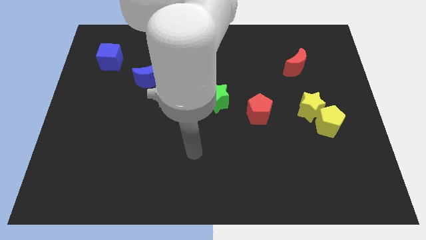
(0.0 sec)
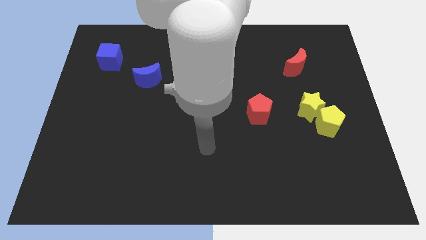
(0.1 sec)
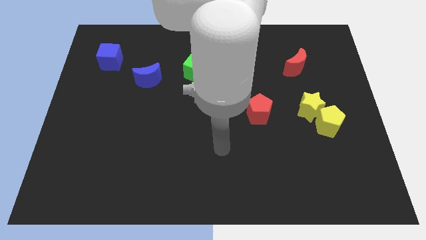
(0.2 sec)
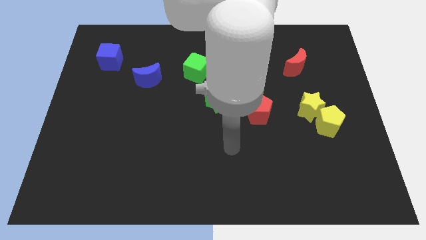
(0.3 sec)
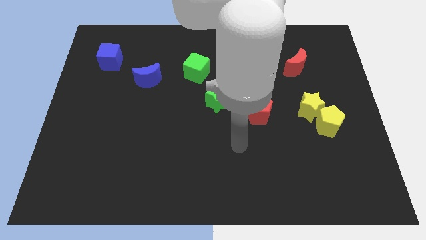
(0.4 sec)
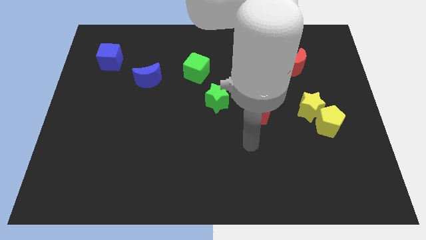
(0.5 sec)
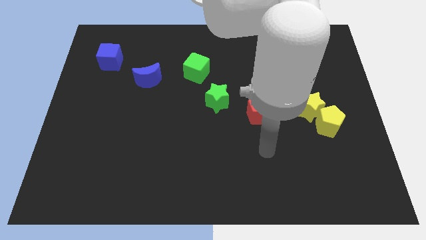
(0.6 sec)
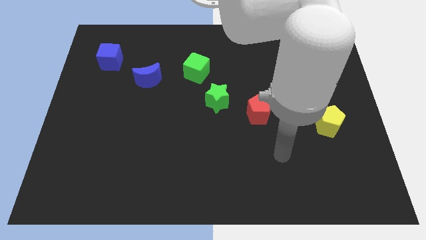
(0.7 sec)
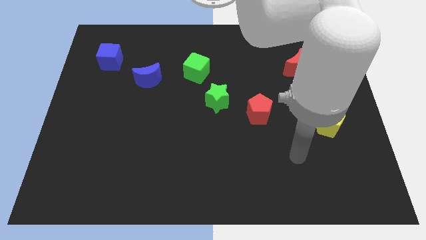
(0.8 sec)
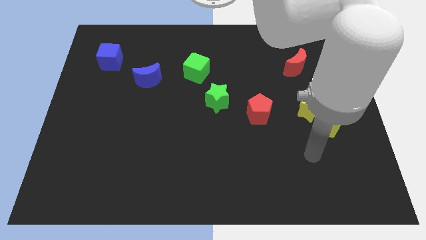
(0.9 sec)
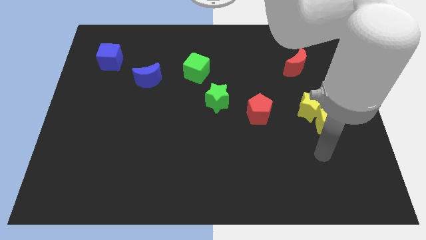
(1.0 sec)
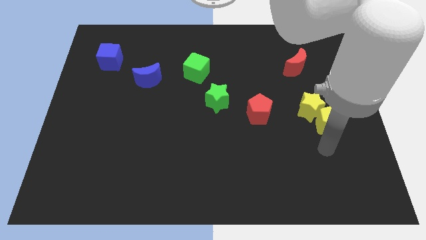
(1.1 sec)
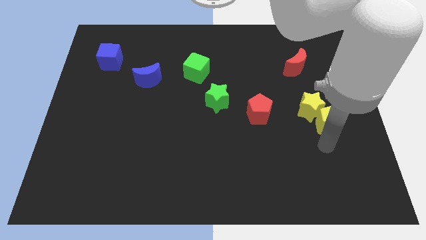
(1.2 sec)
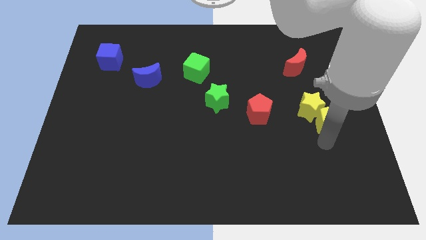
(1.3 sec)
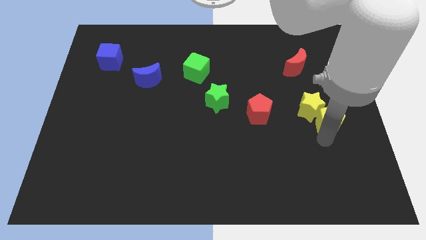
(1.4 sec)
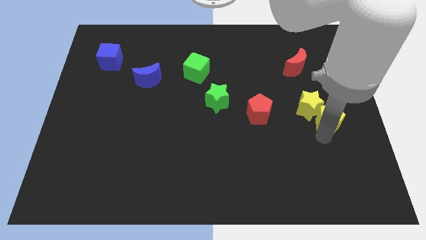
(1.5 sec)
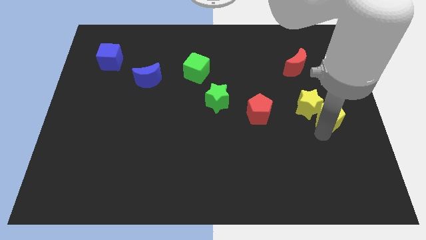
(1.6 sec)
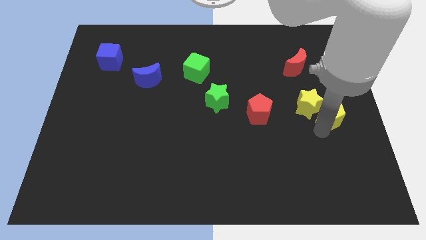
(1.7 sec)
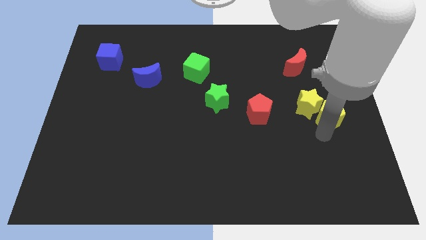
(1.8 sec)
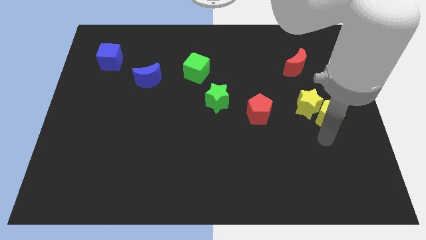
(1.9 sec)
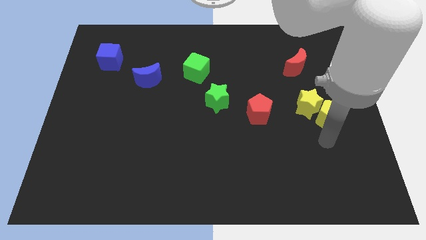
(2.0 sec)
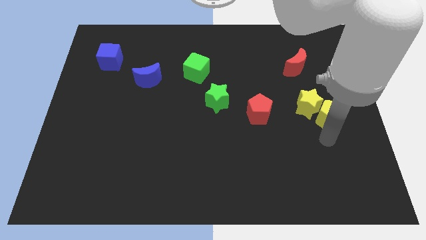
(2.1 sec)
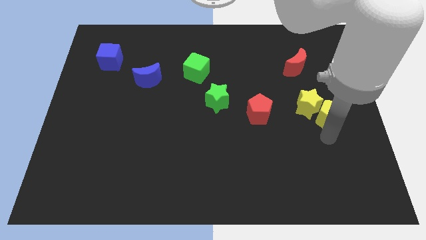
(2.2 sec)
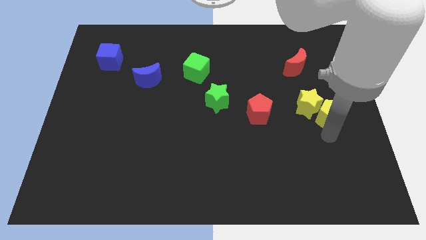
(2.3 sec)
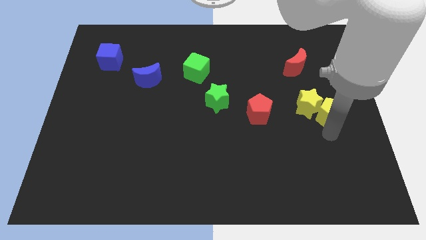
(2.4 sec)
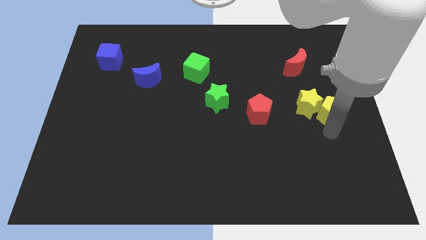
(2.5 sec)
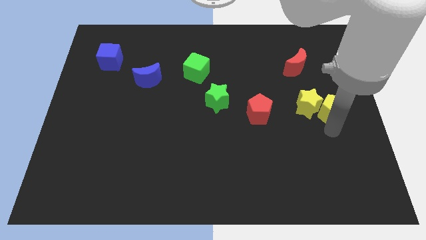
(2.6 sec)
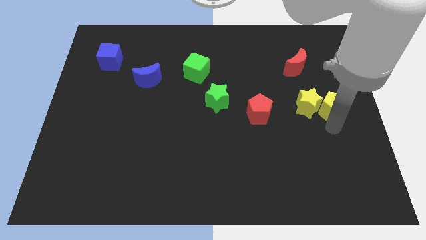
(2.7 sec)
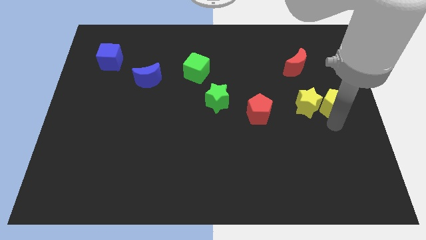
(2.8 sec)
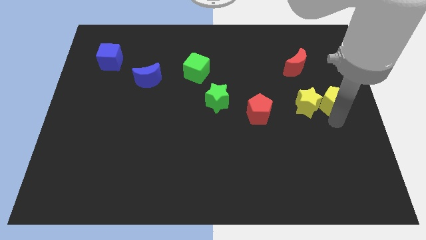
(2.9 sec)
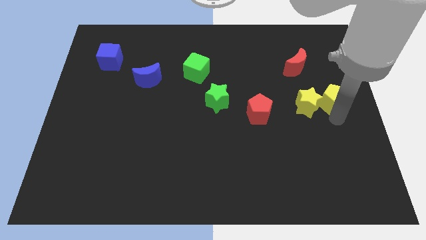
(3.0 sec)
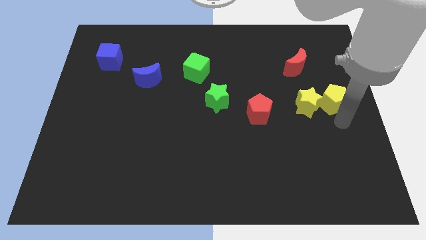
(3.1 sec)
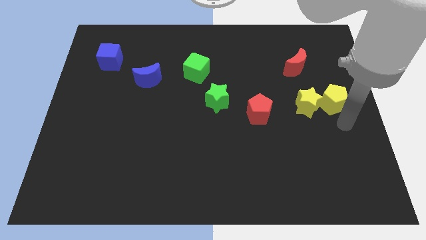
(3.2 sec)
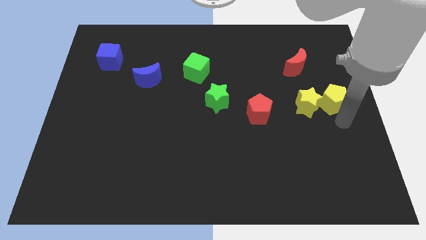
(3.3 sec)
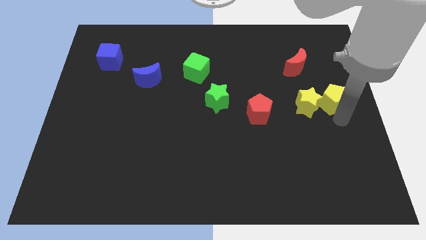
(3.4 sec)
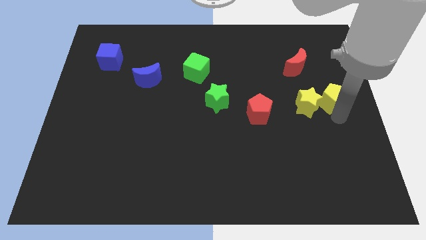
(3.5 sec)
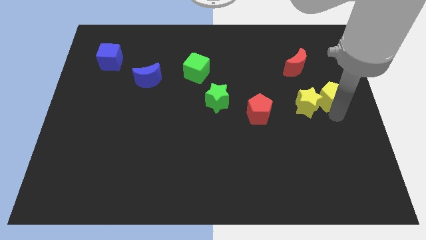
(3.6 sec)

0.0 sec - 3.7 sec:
slide the yellow pentagon a little upwards

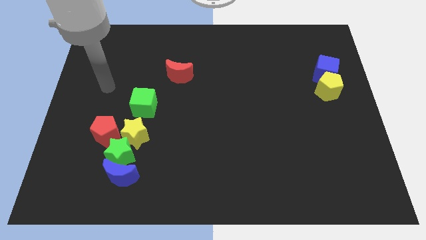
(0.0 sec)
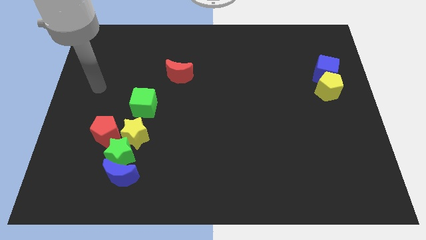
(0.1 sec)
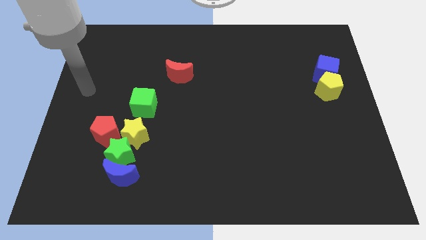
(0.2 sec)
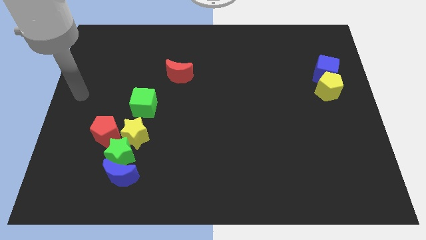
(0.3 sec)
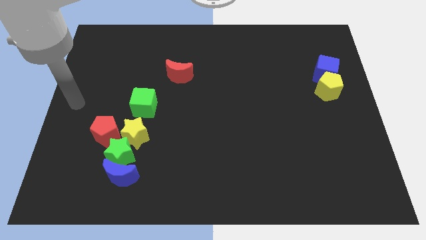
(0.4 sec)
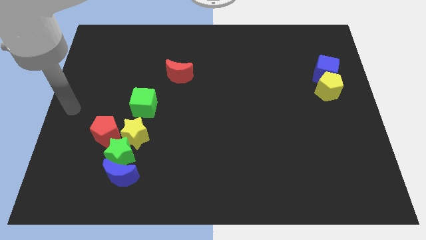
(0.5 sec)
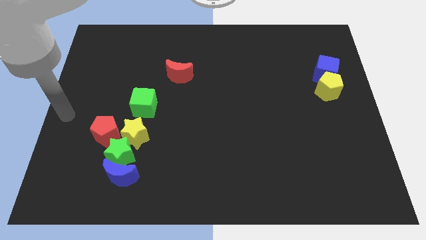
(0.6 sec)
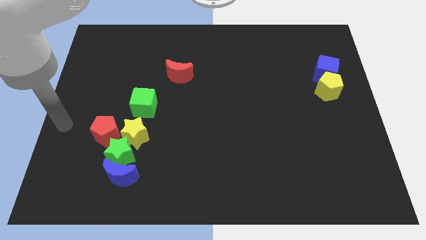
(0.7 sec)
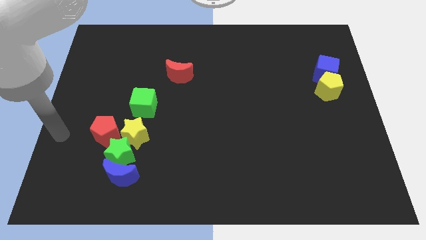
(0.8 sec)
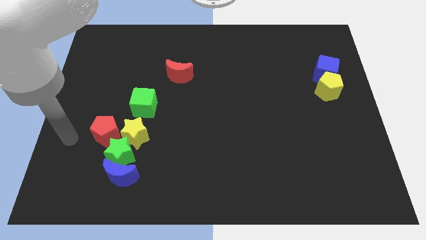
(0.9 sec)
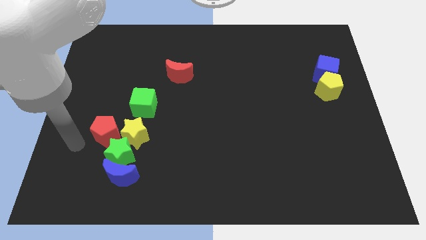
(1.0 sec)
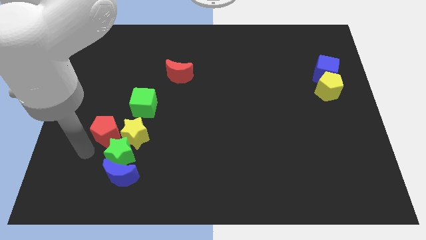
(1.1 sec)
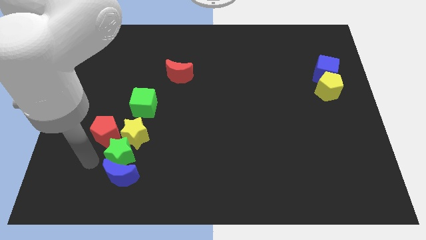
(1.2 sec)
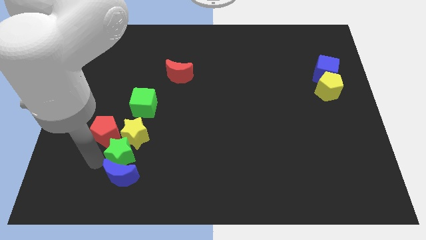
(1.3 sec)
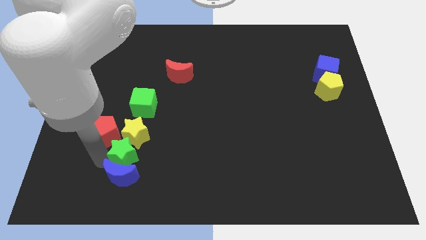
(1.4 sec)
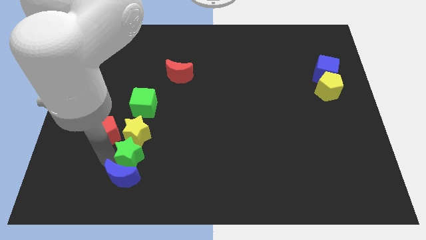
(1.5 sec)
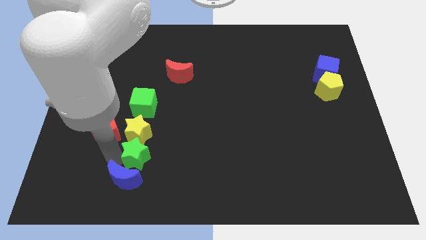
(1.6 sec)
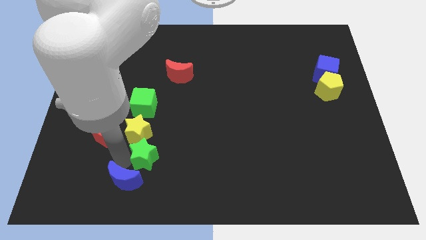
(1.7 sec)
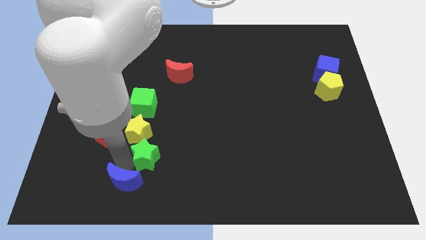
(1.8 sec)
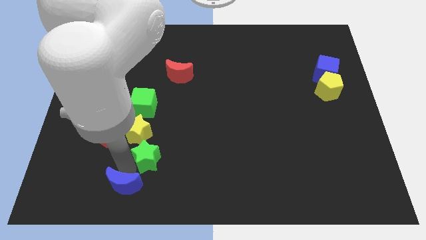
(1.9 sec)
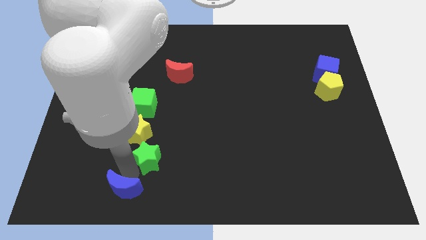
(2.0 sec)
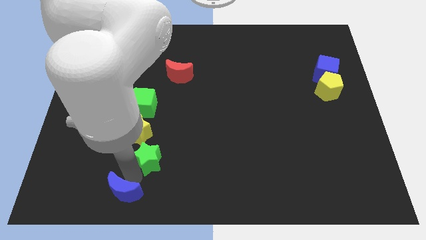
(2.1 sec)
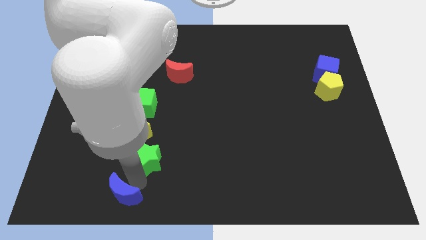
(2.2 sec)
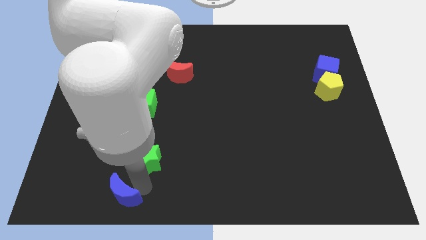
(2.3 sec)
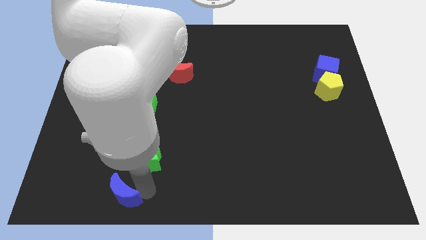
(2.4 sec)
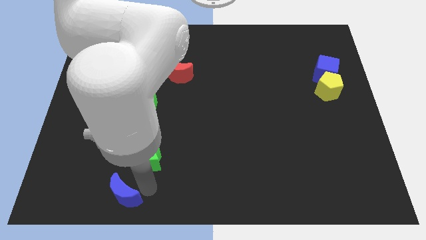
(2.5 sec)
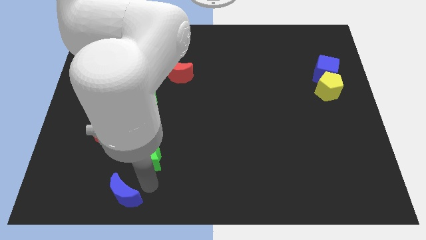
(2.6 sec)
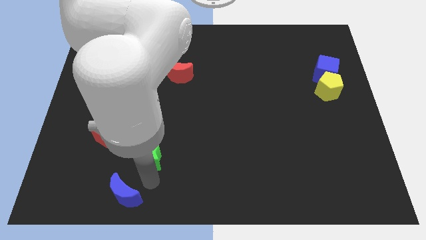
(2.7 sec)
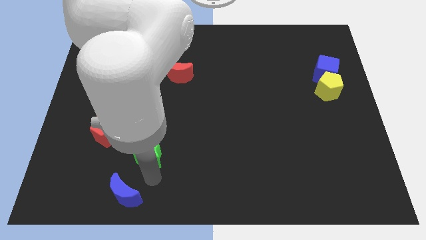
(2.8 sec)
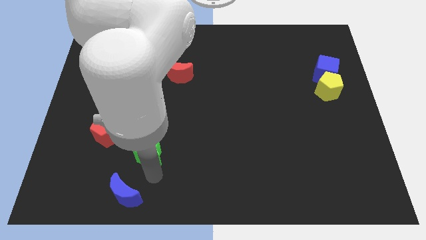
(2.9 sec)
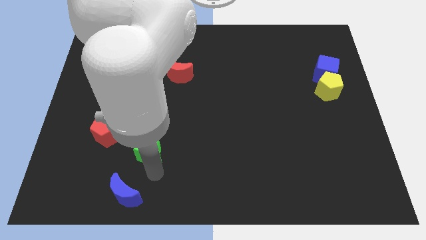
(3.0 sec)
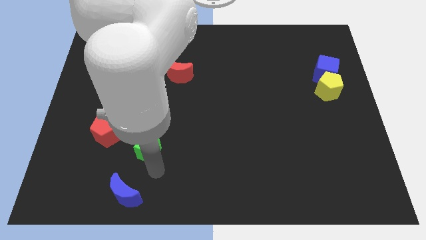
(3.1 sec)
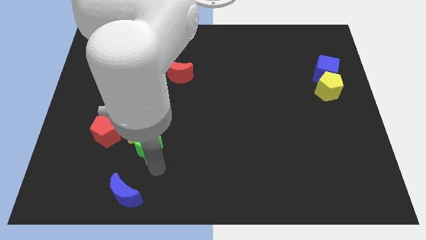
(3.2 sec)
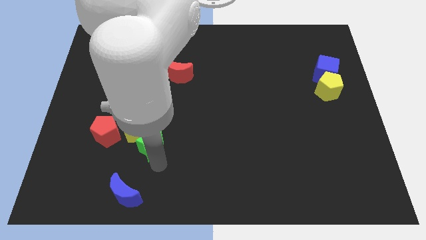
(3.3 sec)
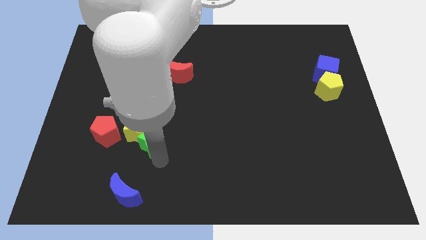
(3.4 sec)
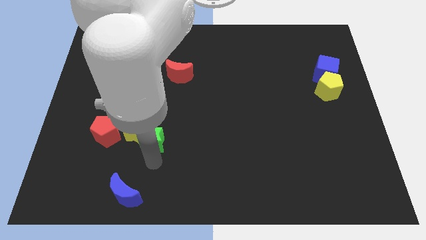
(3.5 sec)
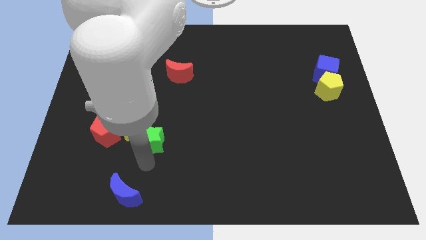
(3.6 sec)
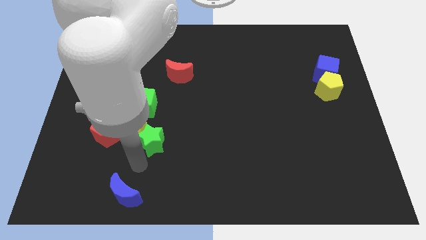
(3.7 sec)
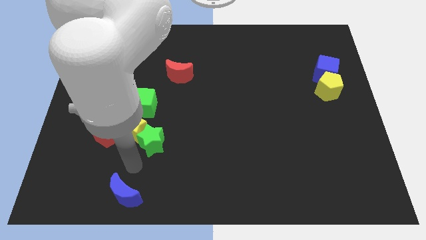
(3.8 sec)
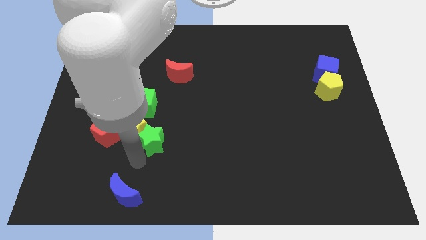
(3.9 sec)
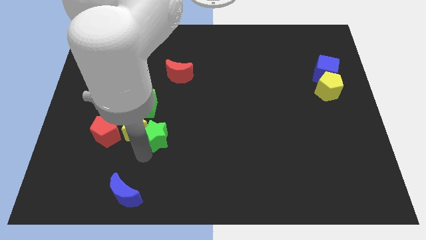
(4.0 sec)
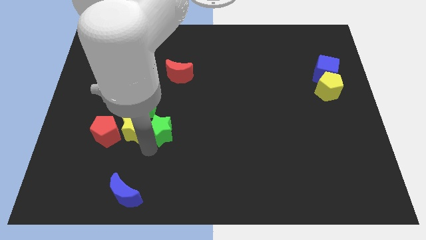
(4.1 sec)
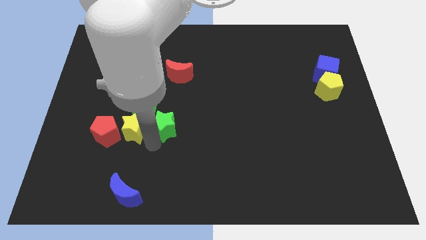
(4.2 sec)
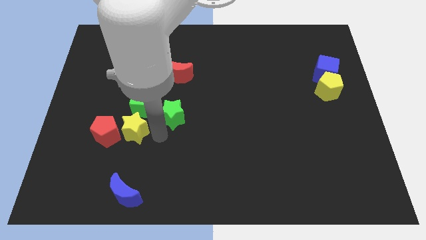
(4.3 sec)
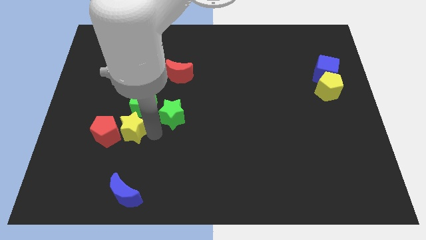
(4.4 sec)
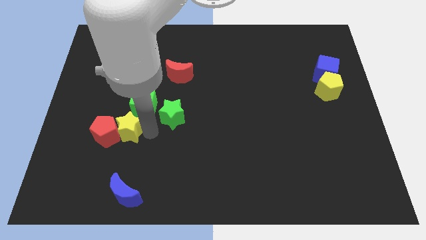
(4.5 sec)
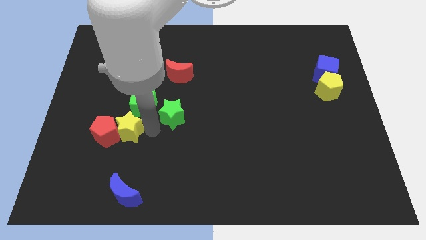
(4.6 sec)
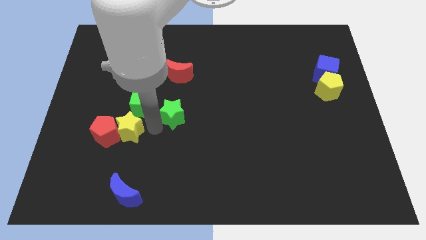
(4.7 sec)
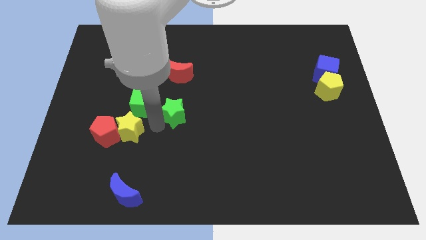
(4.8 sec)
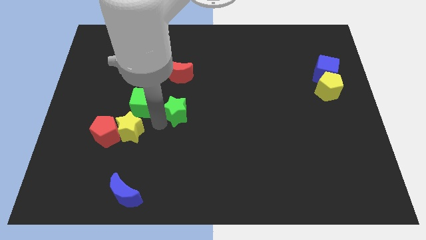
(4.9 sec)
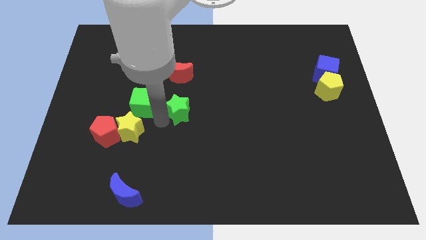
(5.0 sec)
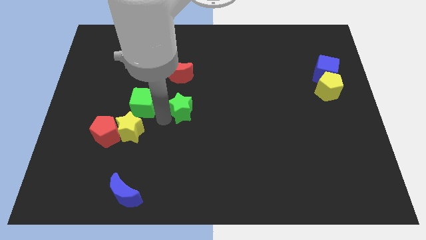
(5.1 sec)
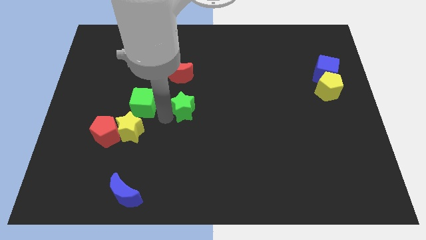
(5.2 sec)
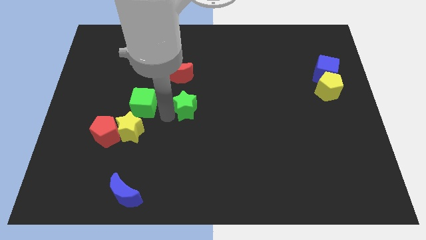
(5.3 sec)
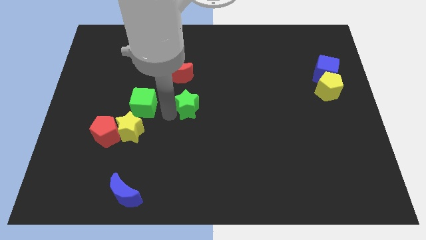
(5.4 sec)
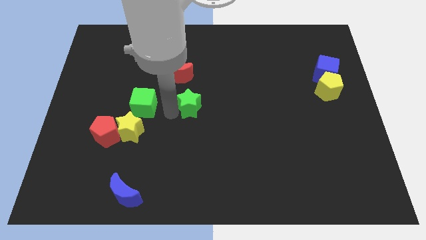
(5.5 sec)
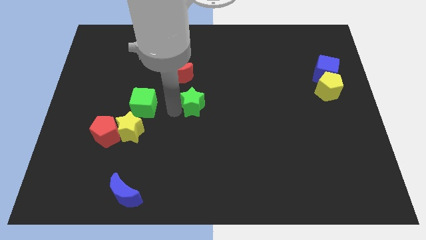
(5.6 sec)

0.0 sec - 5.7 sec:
push the green star up and to the right diagonally
